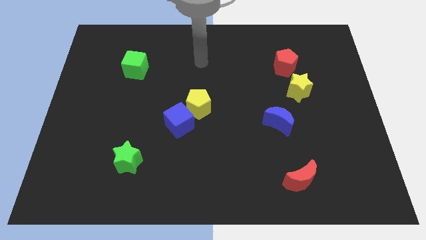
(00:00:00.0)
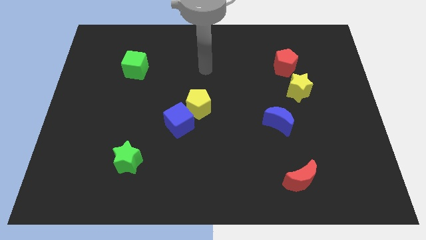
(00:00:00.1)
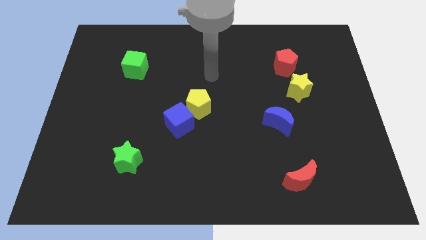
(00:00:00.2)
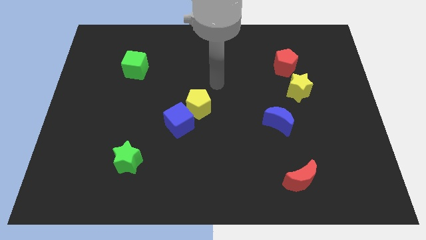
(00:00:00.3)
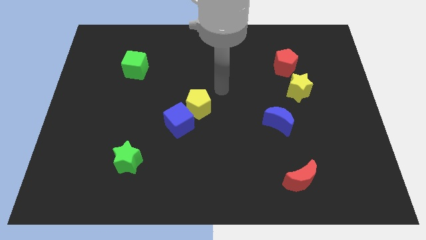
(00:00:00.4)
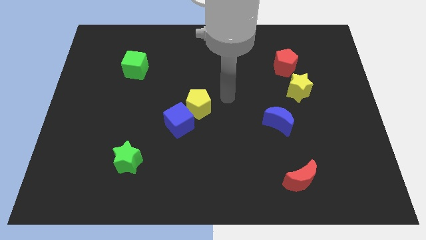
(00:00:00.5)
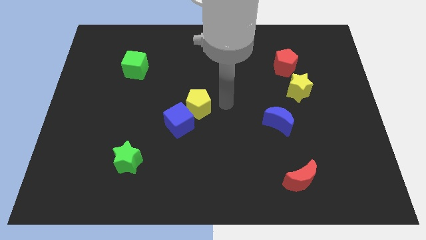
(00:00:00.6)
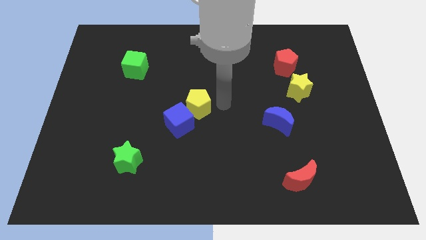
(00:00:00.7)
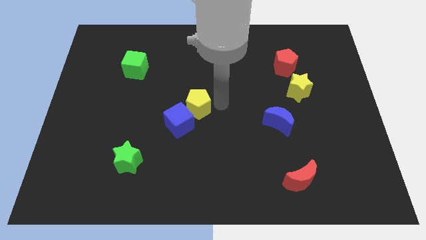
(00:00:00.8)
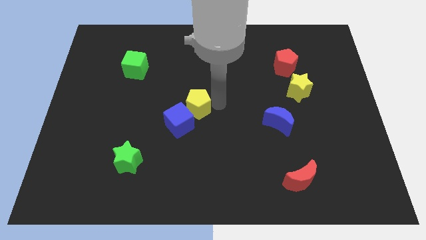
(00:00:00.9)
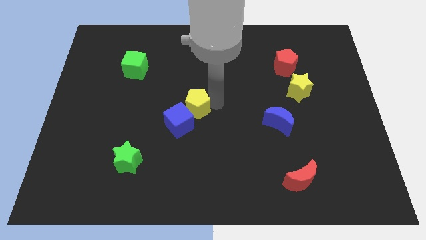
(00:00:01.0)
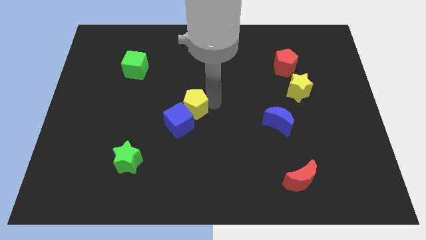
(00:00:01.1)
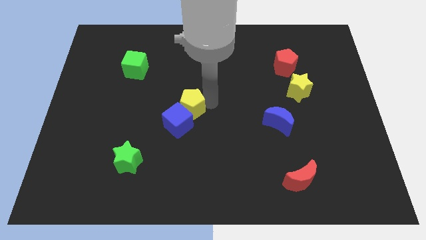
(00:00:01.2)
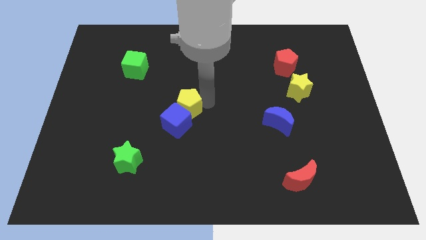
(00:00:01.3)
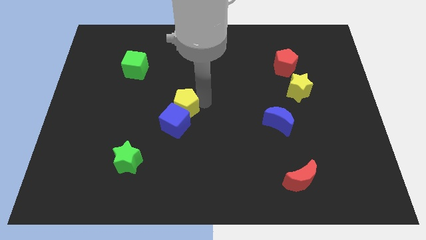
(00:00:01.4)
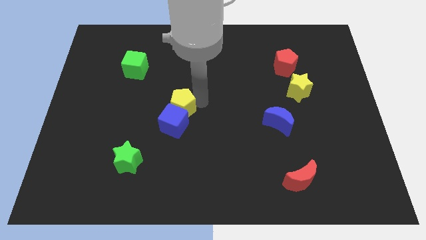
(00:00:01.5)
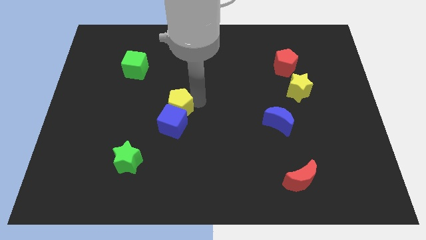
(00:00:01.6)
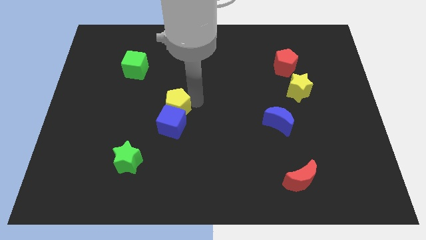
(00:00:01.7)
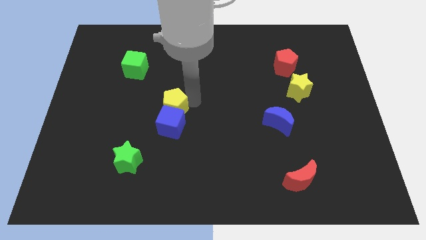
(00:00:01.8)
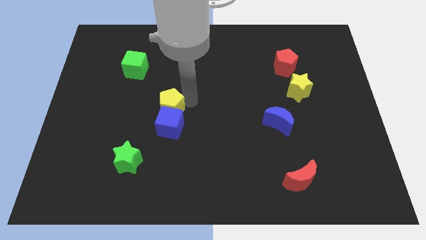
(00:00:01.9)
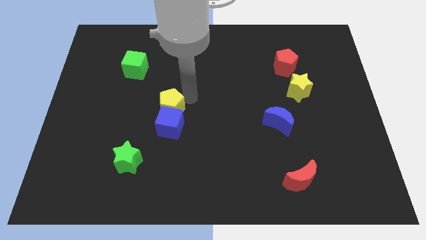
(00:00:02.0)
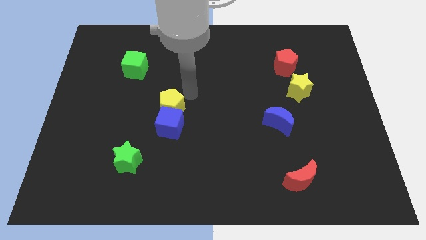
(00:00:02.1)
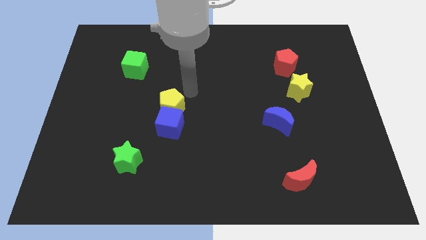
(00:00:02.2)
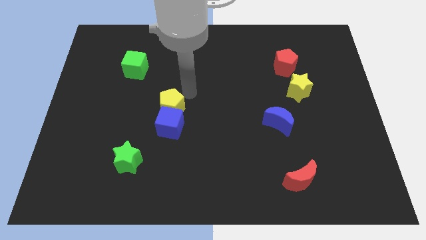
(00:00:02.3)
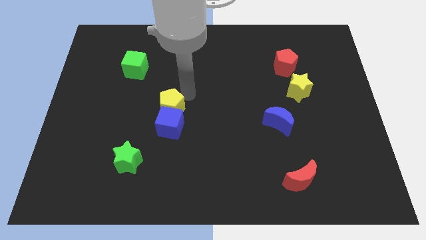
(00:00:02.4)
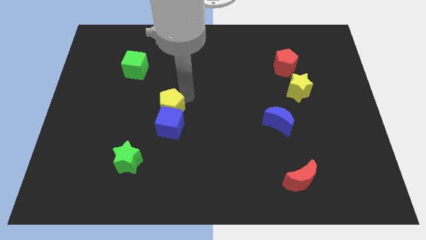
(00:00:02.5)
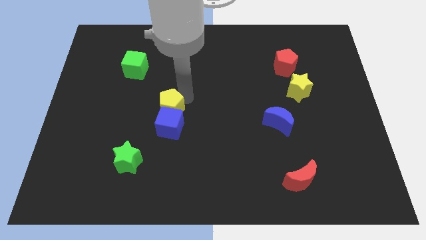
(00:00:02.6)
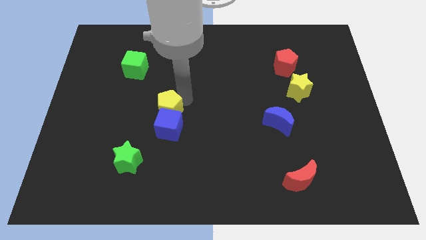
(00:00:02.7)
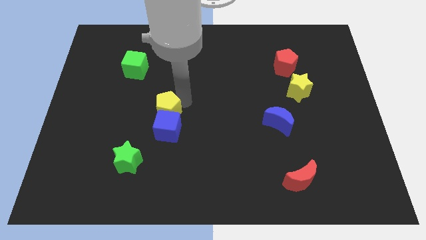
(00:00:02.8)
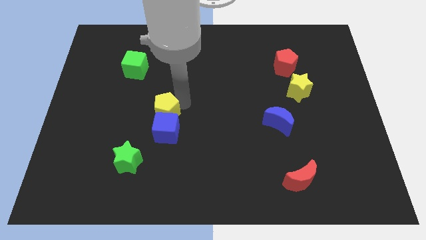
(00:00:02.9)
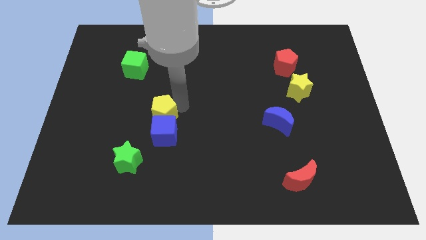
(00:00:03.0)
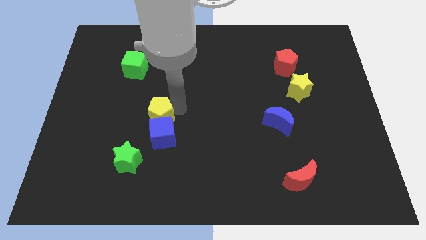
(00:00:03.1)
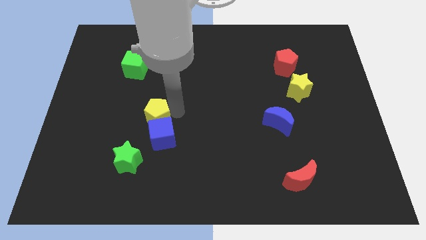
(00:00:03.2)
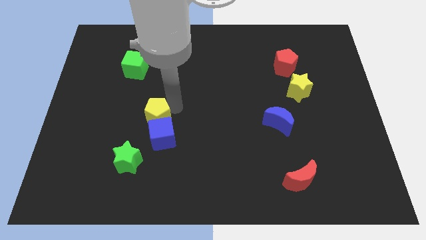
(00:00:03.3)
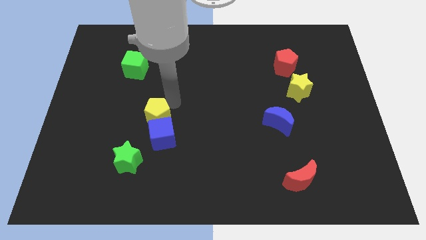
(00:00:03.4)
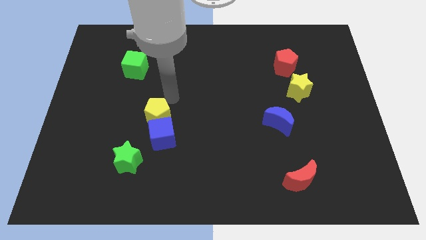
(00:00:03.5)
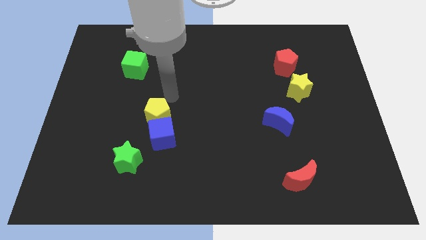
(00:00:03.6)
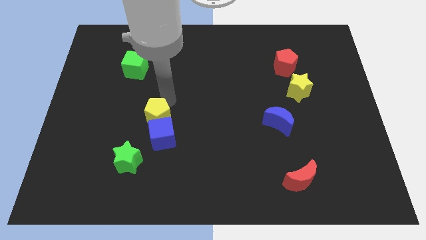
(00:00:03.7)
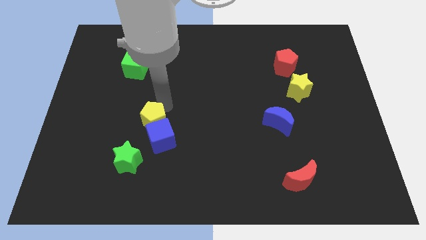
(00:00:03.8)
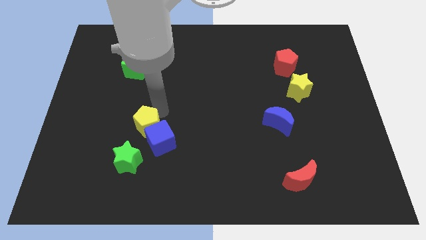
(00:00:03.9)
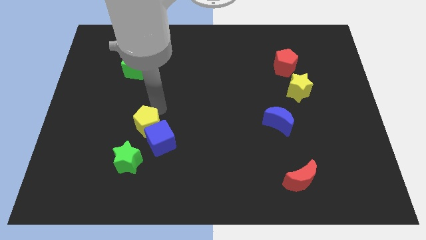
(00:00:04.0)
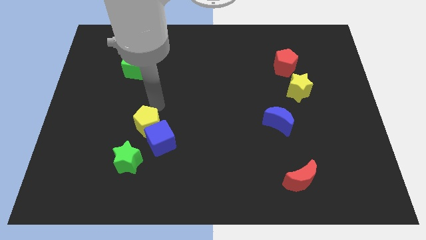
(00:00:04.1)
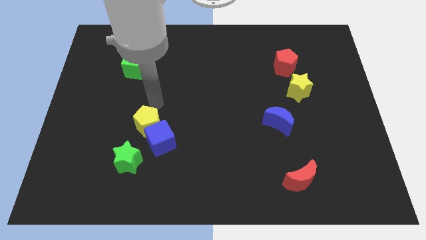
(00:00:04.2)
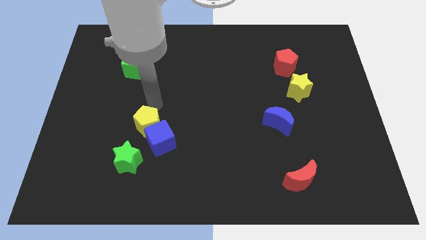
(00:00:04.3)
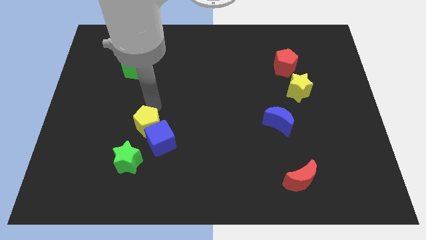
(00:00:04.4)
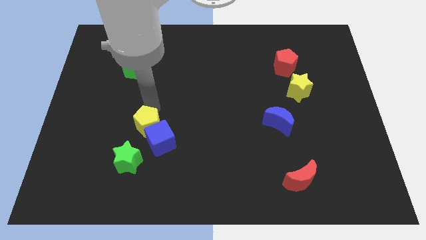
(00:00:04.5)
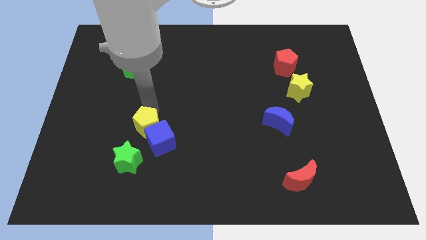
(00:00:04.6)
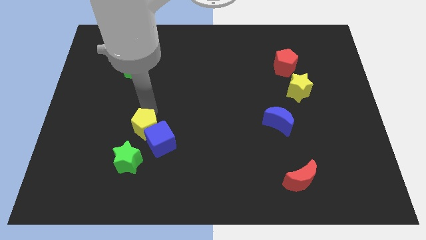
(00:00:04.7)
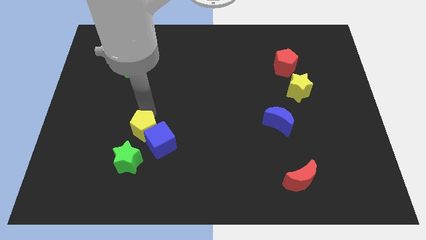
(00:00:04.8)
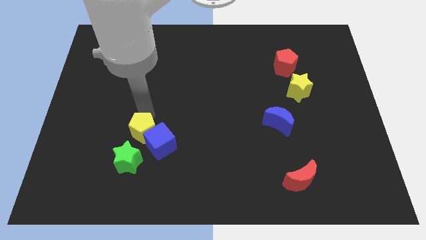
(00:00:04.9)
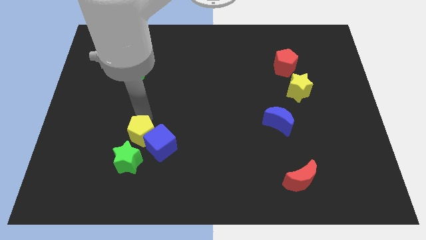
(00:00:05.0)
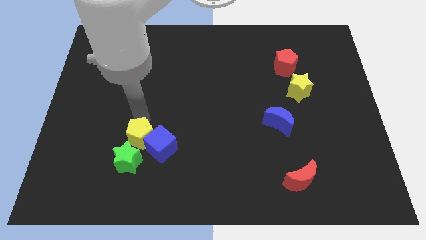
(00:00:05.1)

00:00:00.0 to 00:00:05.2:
put the yellow pentagon next to the green star

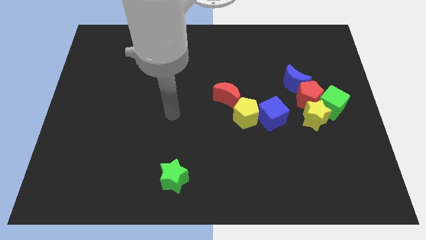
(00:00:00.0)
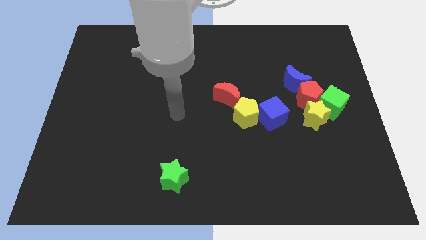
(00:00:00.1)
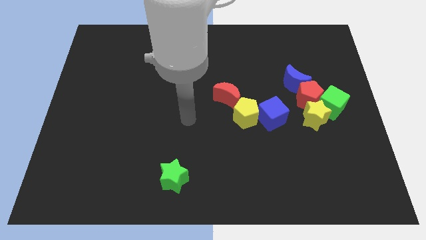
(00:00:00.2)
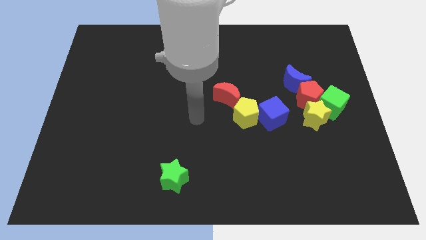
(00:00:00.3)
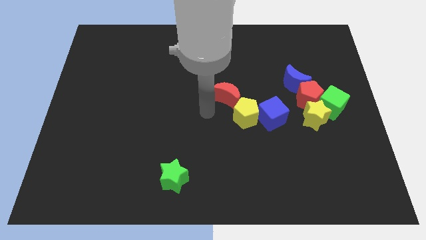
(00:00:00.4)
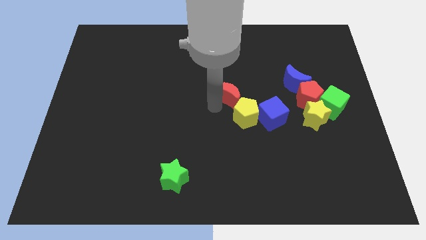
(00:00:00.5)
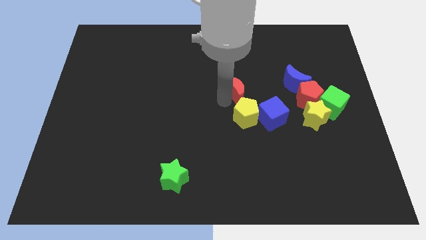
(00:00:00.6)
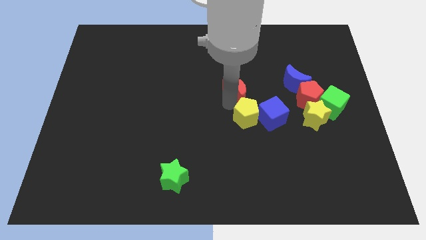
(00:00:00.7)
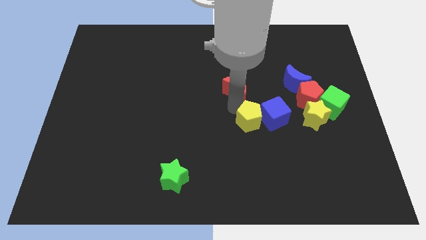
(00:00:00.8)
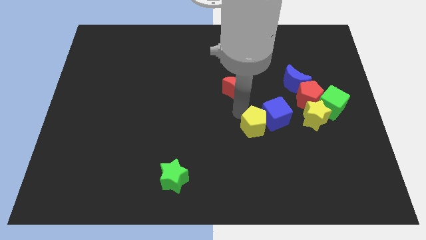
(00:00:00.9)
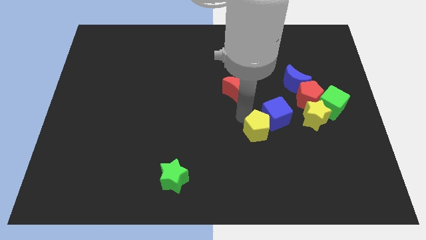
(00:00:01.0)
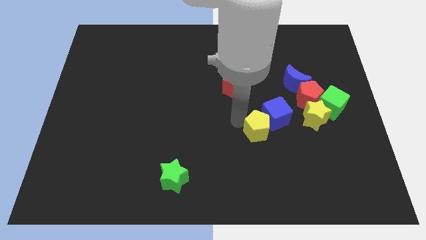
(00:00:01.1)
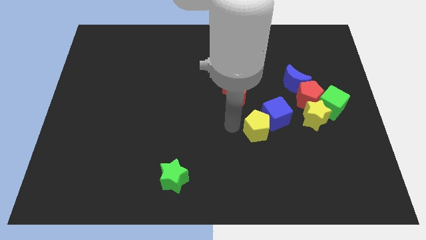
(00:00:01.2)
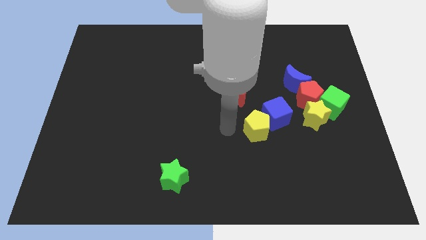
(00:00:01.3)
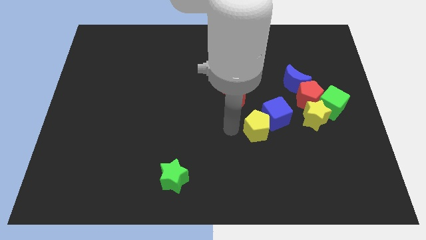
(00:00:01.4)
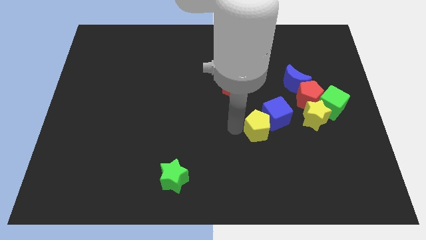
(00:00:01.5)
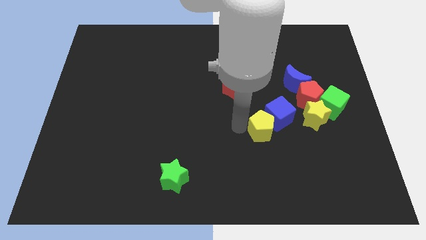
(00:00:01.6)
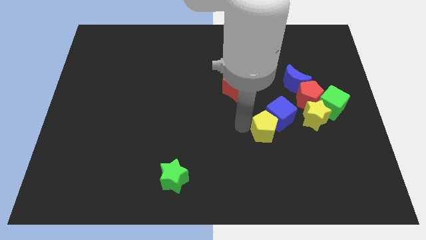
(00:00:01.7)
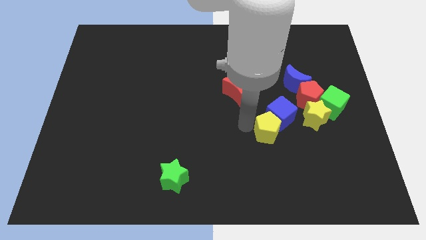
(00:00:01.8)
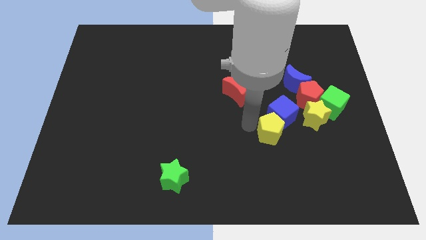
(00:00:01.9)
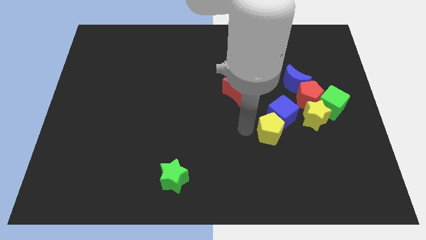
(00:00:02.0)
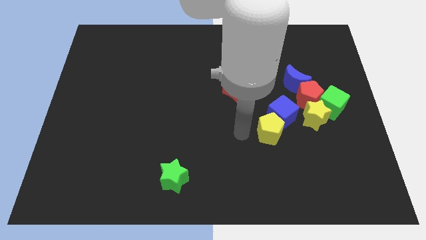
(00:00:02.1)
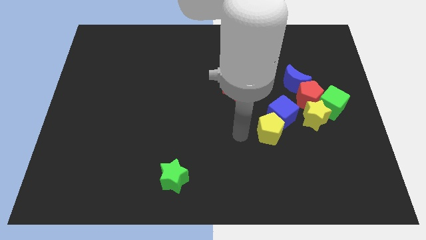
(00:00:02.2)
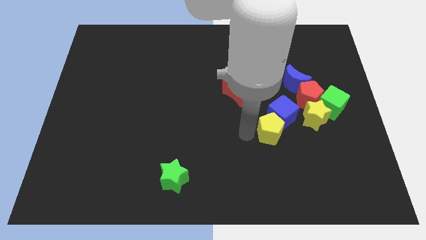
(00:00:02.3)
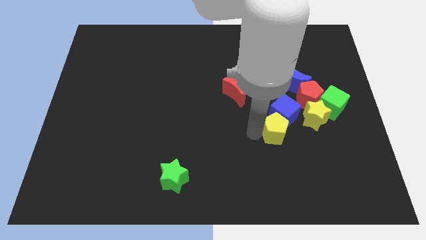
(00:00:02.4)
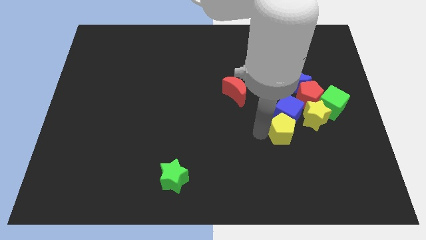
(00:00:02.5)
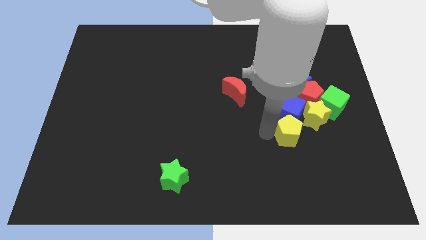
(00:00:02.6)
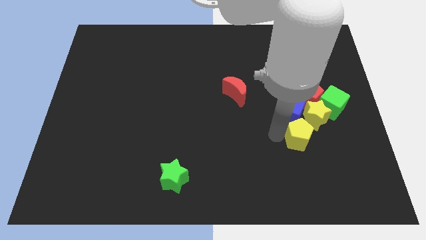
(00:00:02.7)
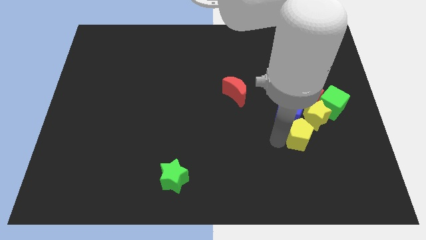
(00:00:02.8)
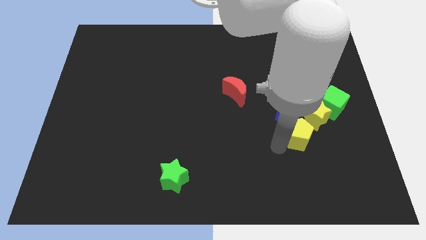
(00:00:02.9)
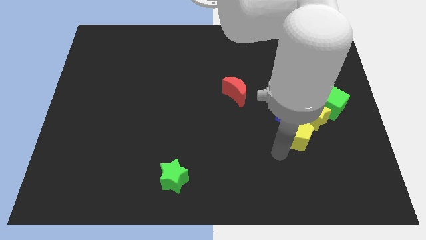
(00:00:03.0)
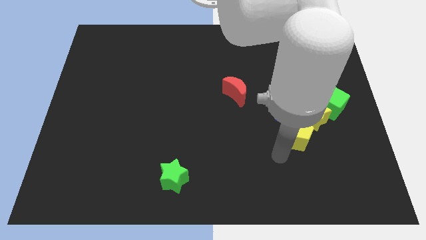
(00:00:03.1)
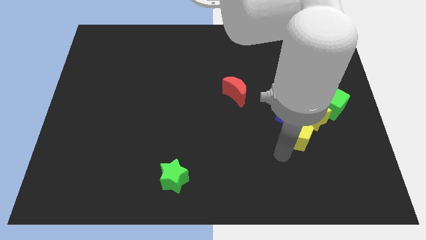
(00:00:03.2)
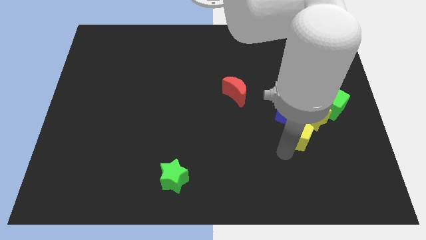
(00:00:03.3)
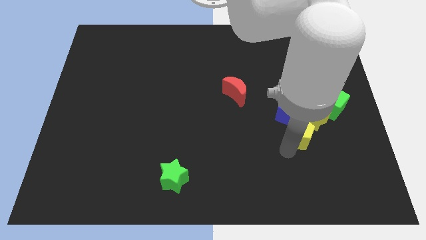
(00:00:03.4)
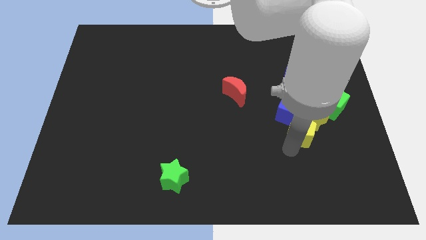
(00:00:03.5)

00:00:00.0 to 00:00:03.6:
push the yellow pentagon to the yellow star
